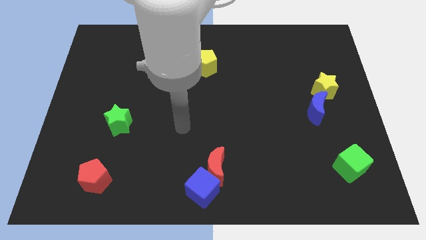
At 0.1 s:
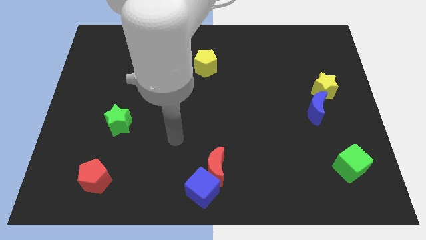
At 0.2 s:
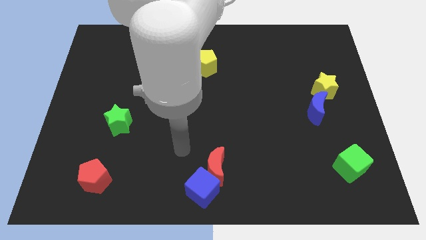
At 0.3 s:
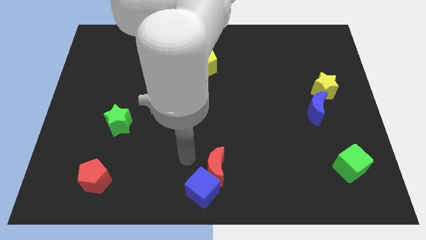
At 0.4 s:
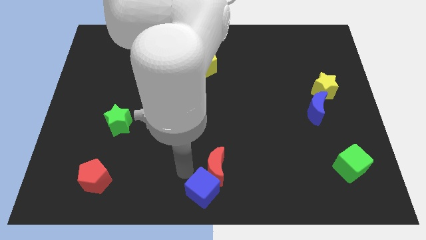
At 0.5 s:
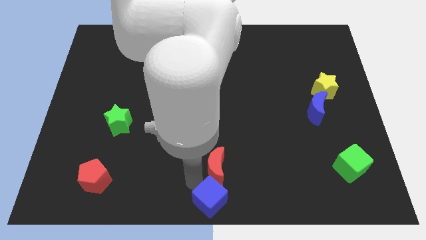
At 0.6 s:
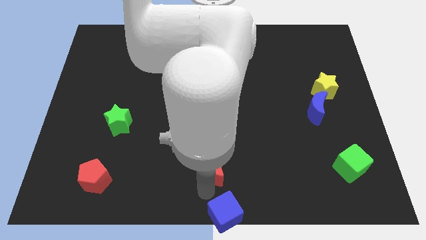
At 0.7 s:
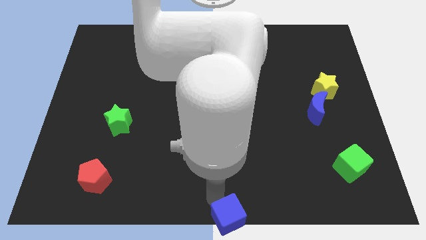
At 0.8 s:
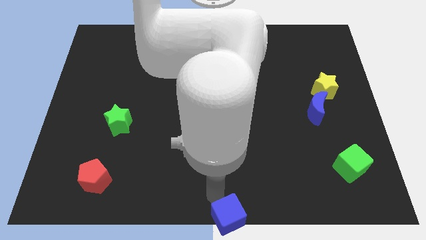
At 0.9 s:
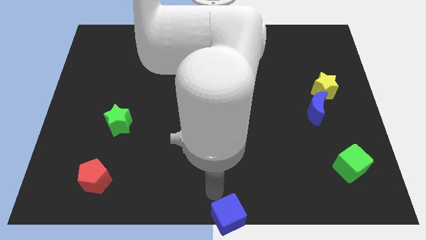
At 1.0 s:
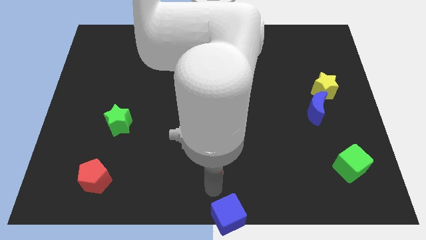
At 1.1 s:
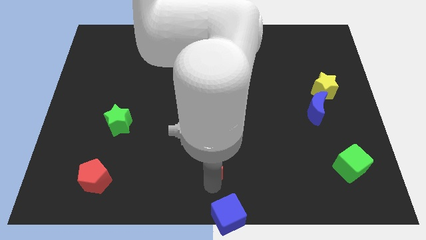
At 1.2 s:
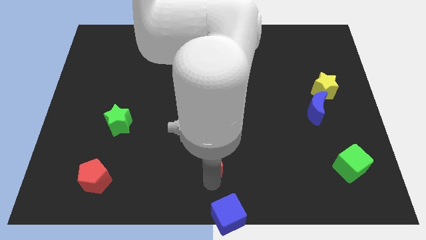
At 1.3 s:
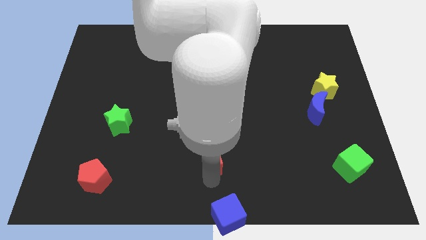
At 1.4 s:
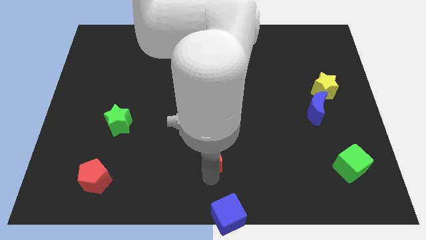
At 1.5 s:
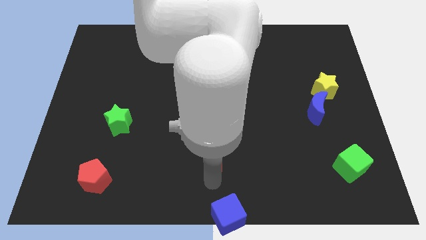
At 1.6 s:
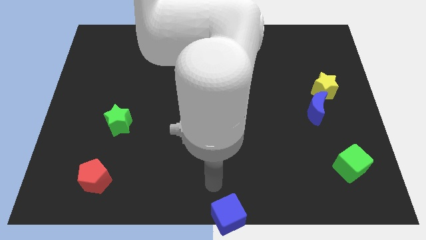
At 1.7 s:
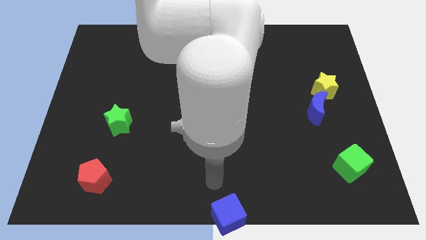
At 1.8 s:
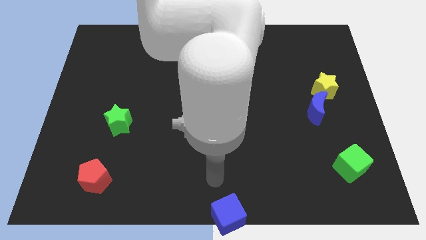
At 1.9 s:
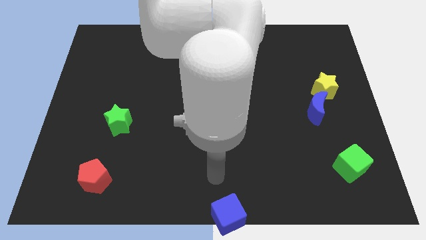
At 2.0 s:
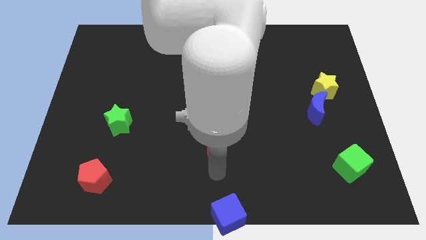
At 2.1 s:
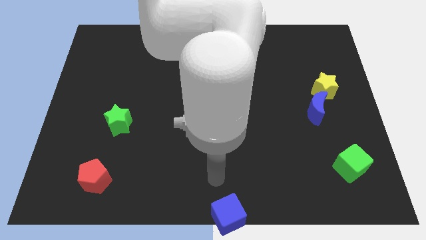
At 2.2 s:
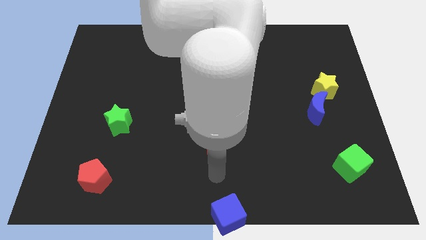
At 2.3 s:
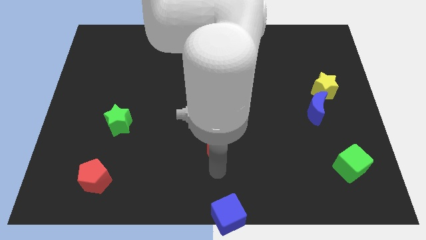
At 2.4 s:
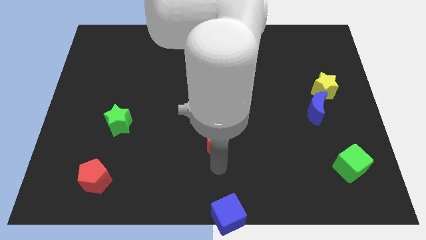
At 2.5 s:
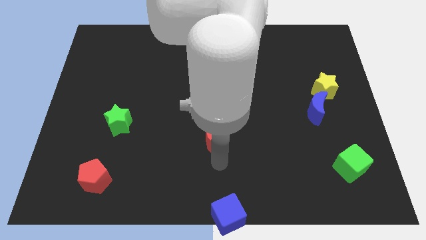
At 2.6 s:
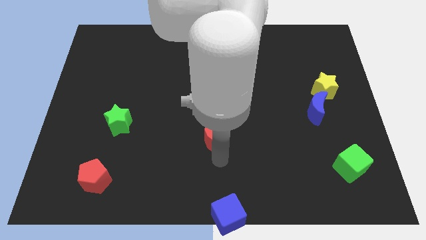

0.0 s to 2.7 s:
slide the red moon somewhat up

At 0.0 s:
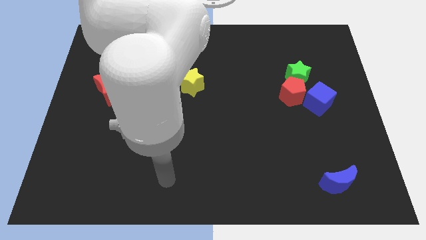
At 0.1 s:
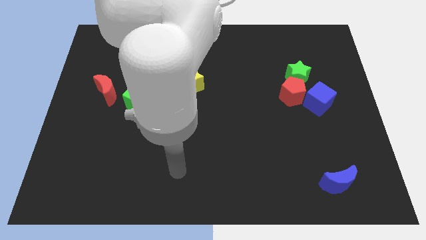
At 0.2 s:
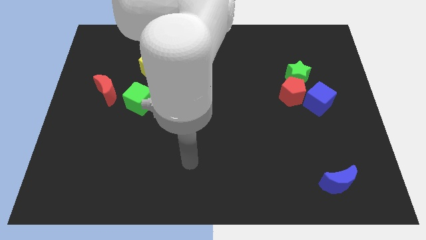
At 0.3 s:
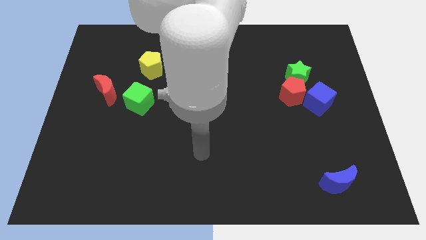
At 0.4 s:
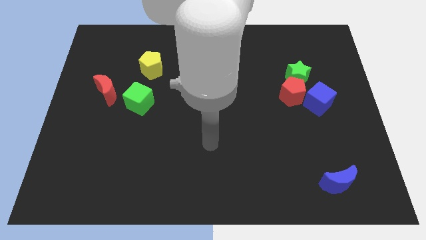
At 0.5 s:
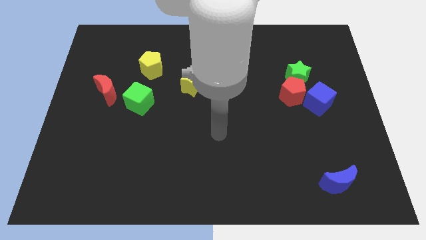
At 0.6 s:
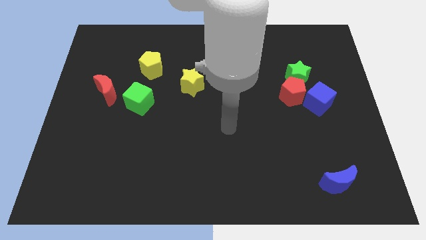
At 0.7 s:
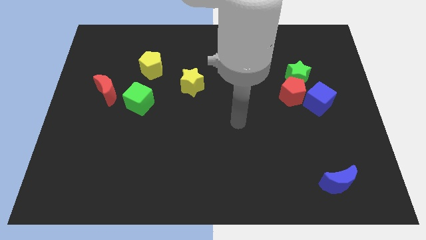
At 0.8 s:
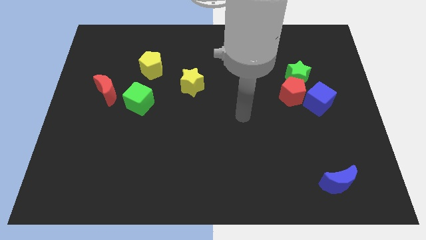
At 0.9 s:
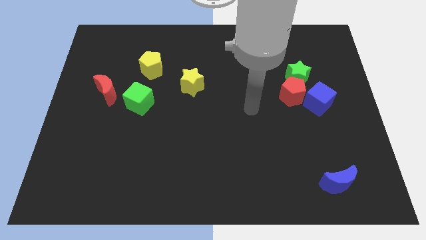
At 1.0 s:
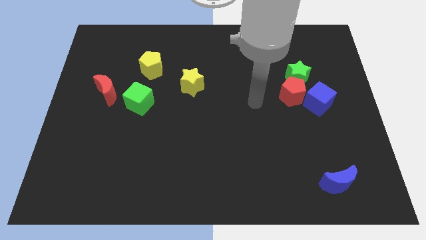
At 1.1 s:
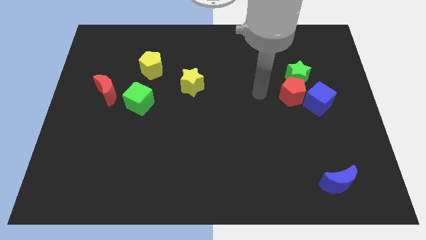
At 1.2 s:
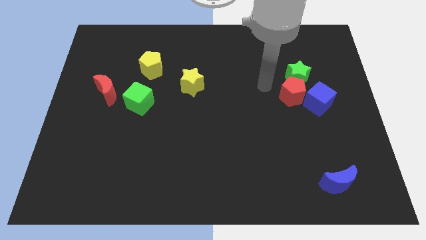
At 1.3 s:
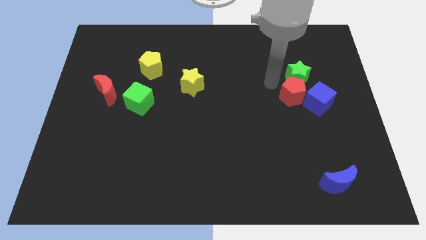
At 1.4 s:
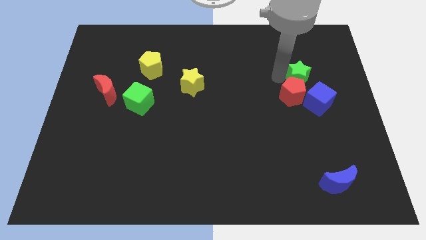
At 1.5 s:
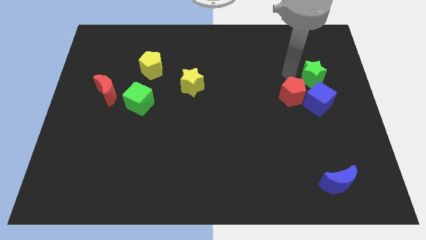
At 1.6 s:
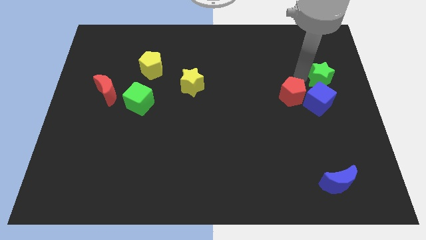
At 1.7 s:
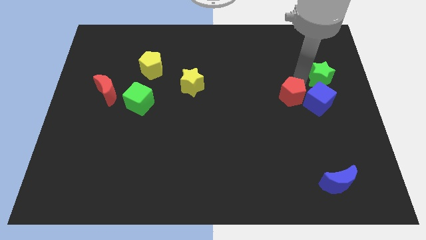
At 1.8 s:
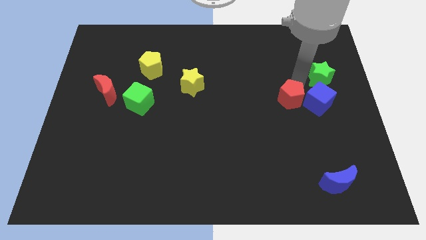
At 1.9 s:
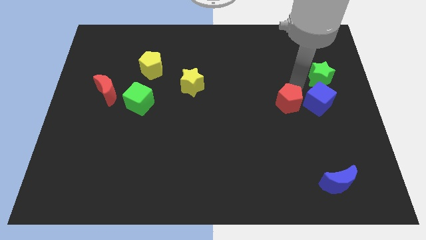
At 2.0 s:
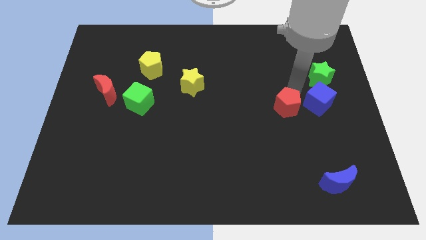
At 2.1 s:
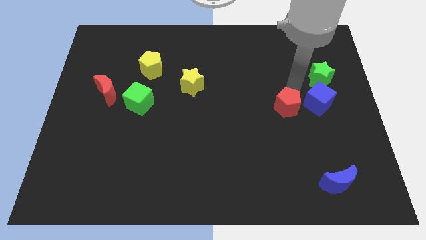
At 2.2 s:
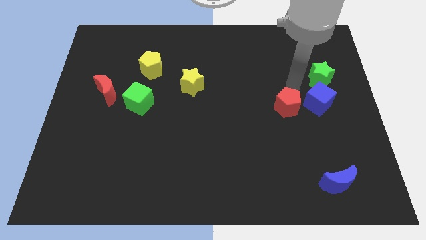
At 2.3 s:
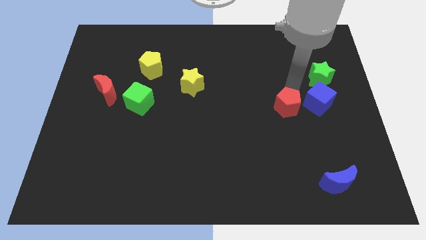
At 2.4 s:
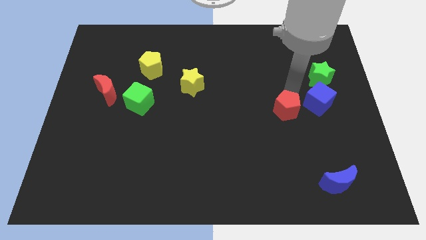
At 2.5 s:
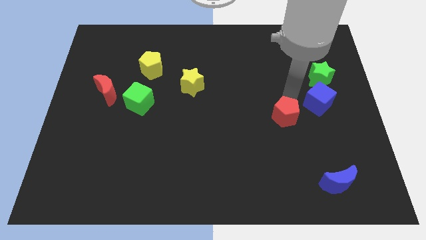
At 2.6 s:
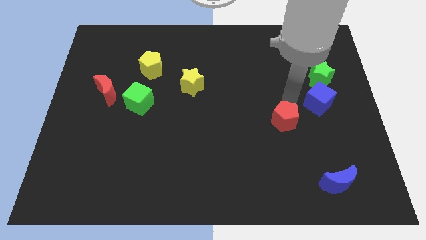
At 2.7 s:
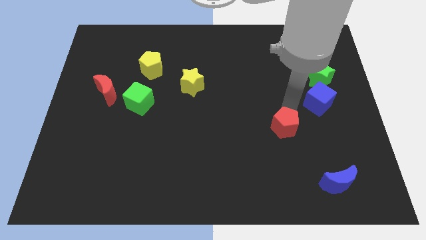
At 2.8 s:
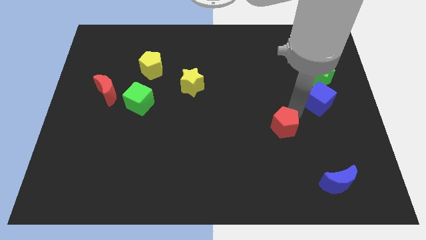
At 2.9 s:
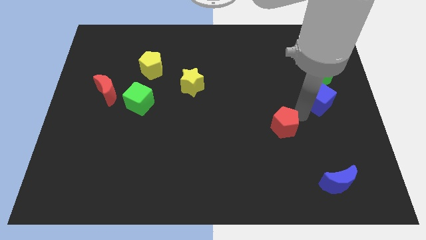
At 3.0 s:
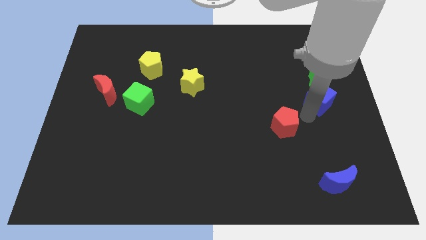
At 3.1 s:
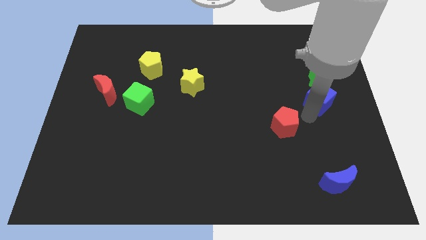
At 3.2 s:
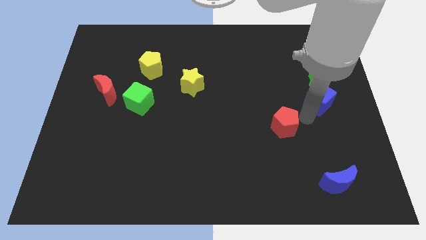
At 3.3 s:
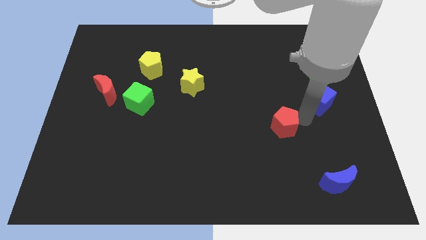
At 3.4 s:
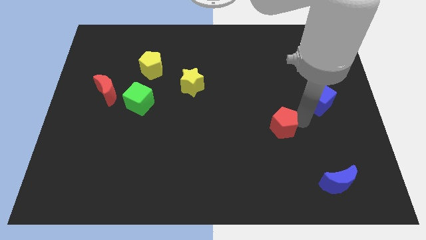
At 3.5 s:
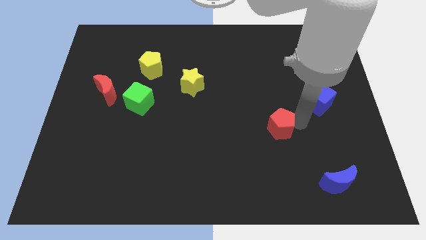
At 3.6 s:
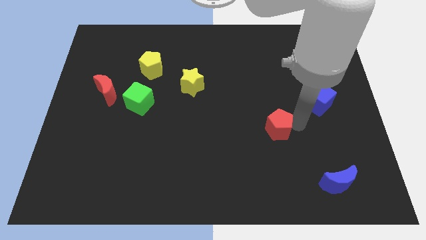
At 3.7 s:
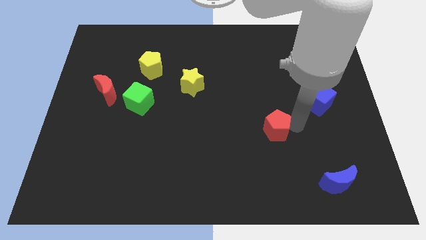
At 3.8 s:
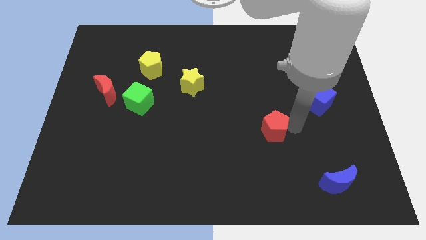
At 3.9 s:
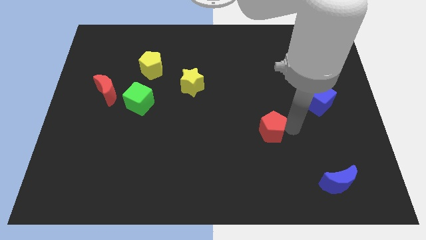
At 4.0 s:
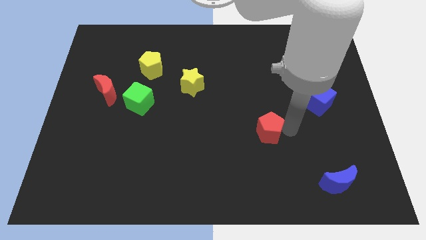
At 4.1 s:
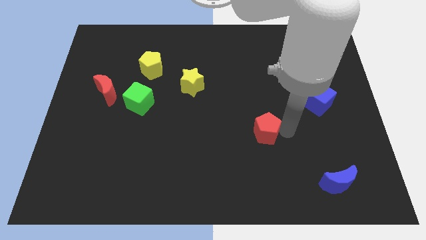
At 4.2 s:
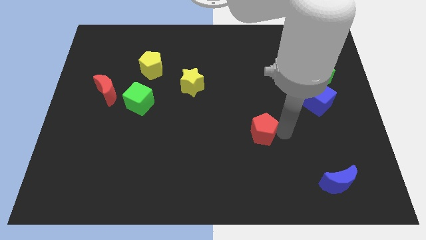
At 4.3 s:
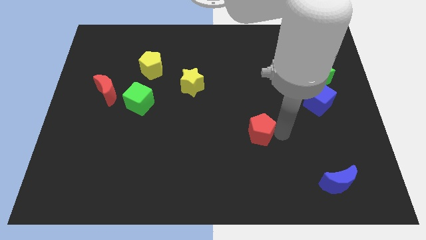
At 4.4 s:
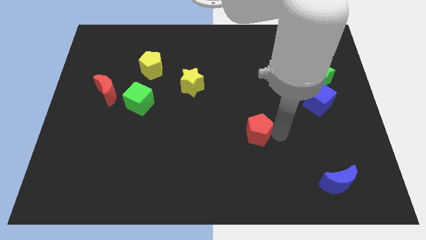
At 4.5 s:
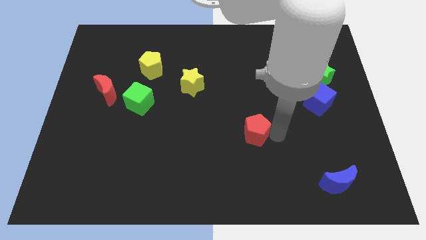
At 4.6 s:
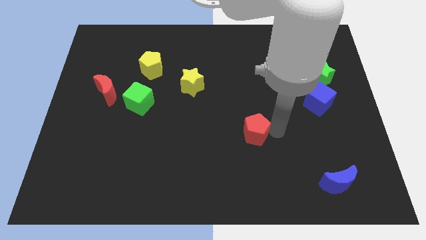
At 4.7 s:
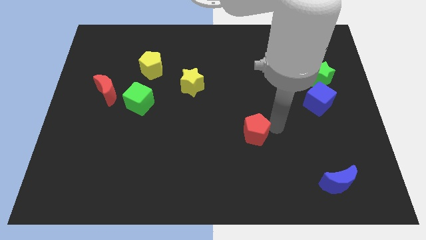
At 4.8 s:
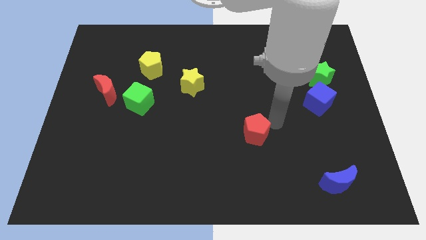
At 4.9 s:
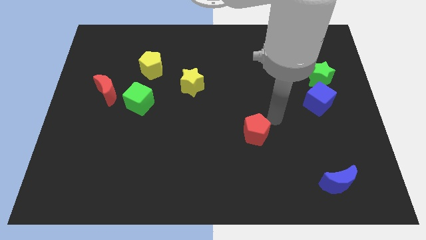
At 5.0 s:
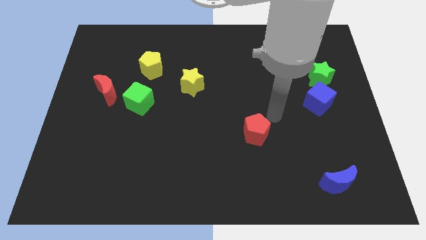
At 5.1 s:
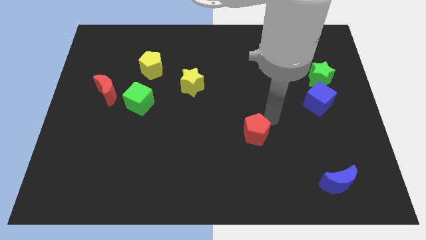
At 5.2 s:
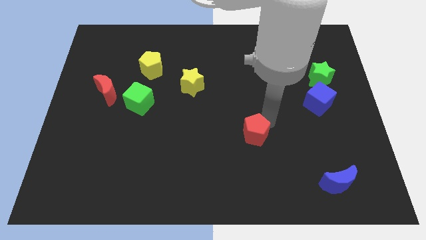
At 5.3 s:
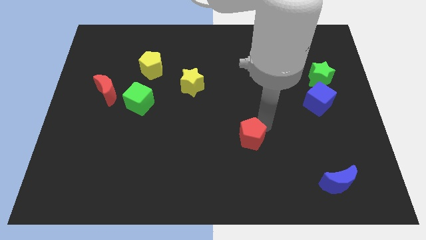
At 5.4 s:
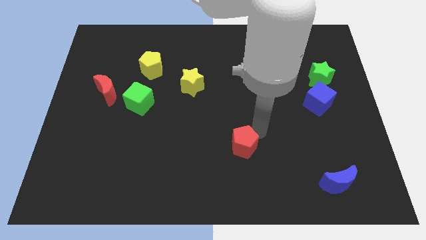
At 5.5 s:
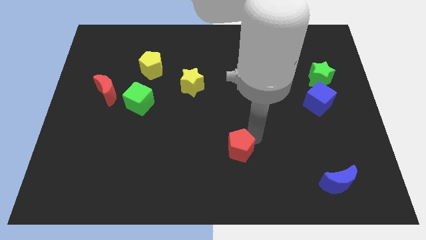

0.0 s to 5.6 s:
move the red pentagon downwards and then to the left
